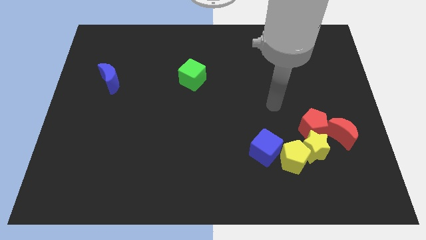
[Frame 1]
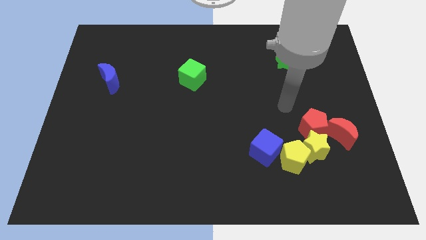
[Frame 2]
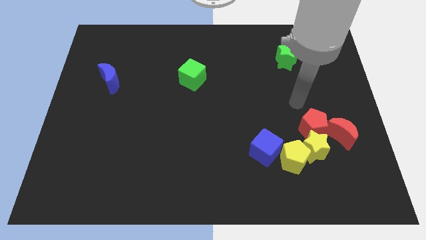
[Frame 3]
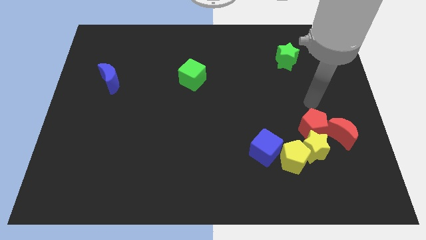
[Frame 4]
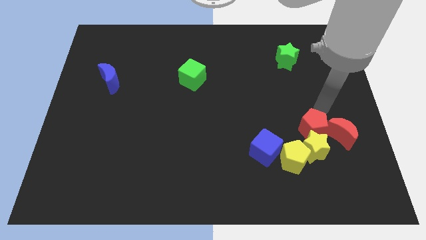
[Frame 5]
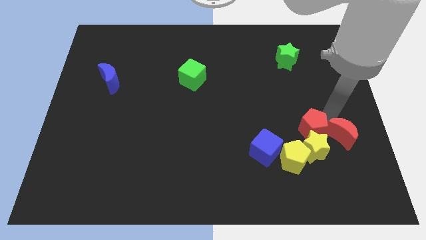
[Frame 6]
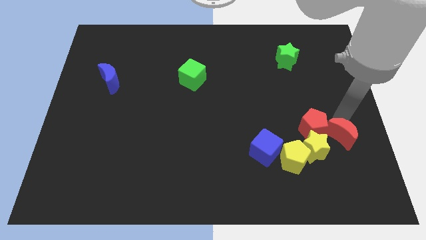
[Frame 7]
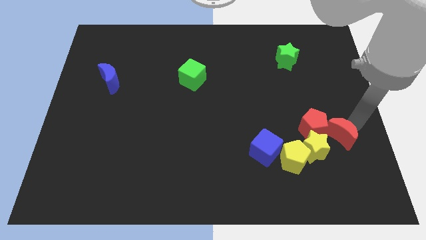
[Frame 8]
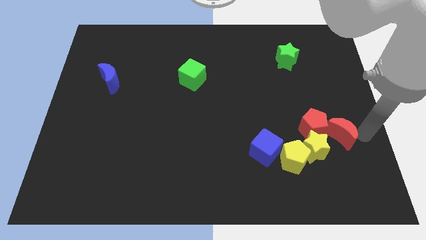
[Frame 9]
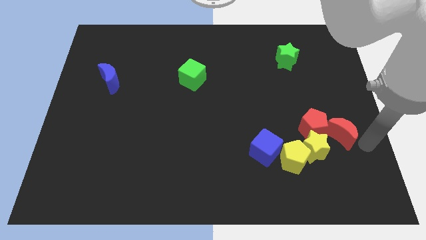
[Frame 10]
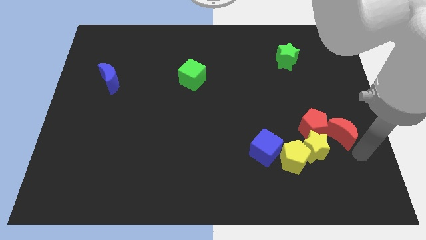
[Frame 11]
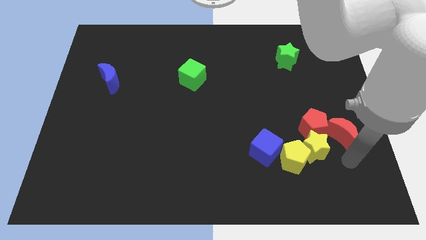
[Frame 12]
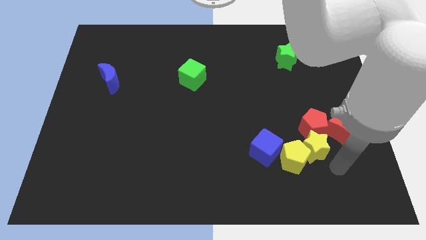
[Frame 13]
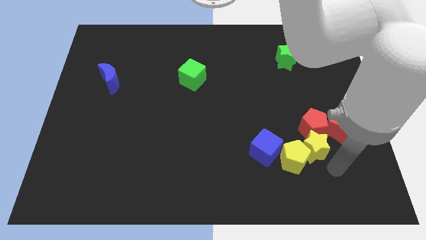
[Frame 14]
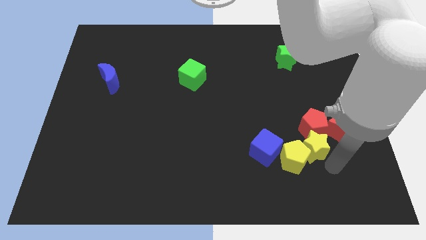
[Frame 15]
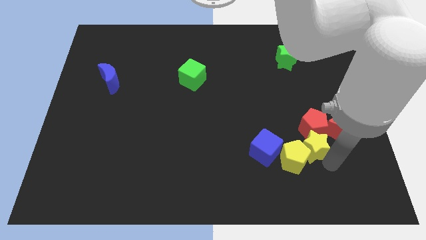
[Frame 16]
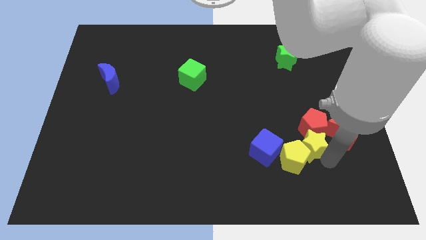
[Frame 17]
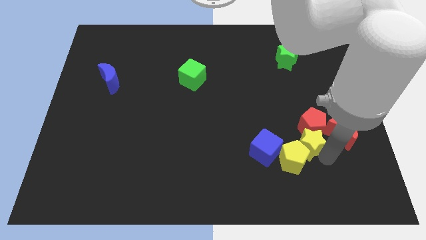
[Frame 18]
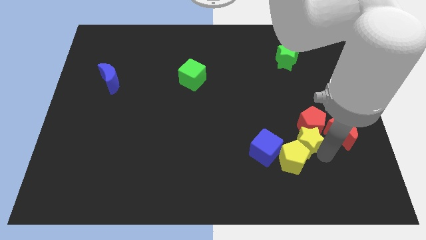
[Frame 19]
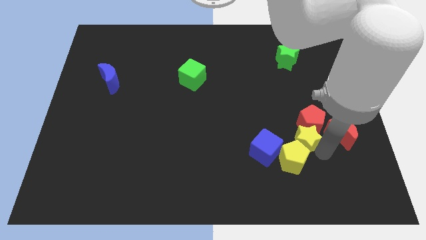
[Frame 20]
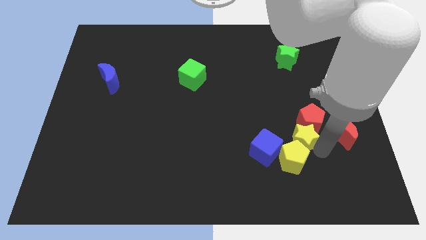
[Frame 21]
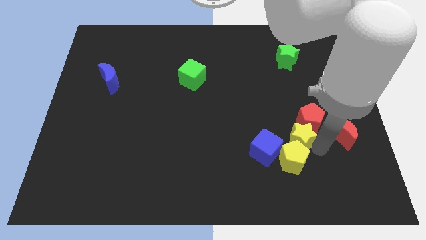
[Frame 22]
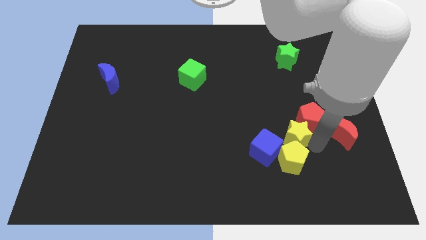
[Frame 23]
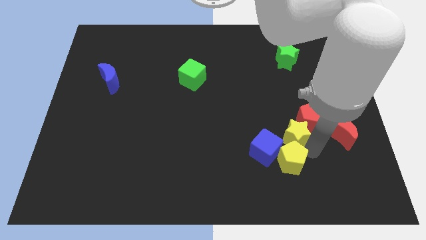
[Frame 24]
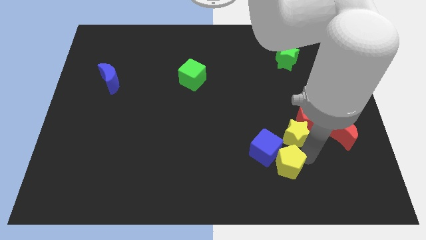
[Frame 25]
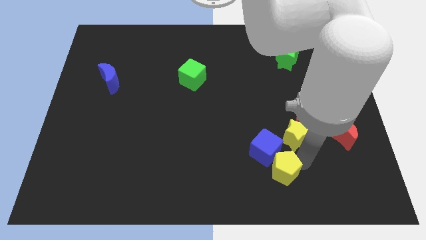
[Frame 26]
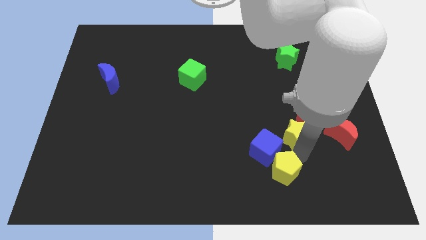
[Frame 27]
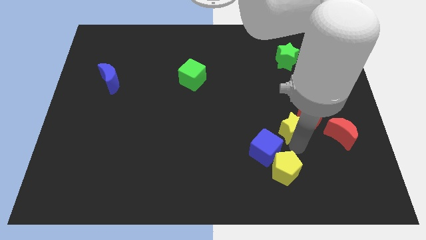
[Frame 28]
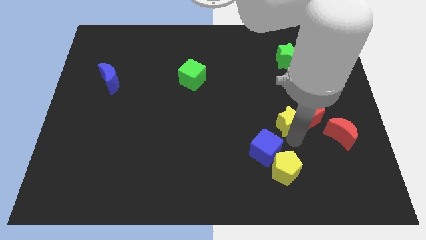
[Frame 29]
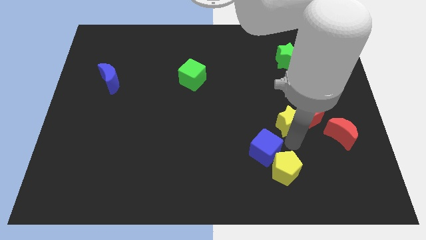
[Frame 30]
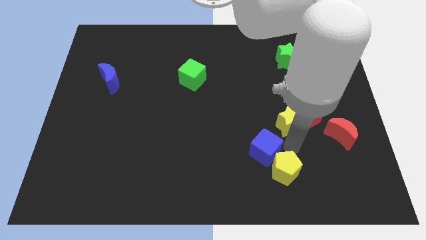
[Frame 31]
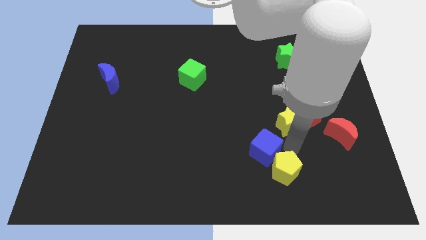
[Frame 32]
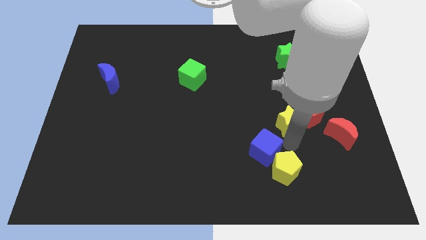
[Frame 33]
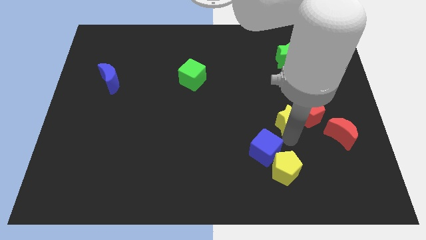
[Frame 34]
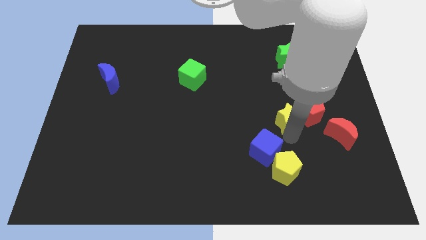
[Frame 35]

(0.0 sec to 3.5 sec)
slightly slide the yellow star up

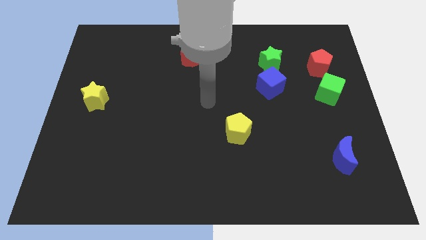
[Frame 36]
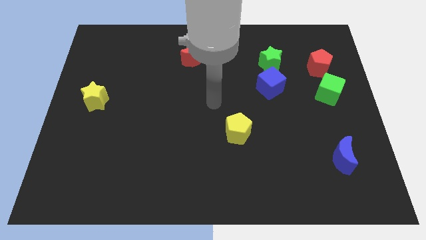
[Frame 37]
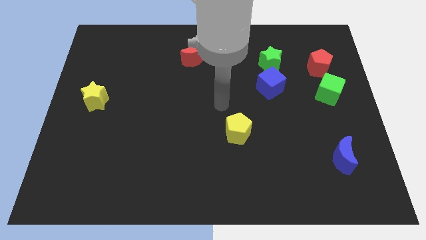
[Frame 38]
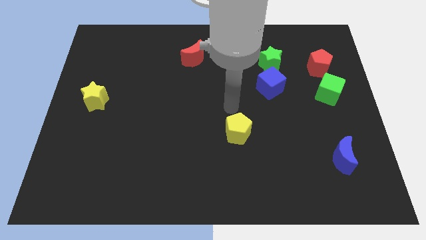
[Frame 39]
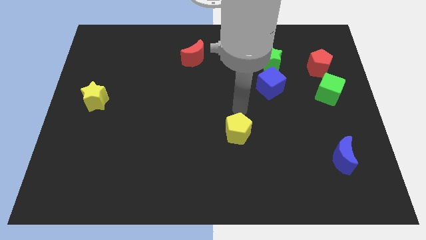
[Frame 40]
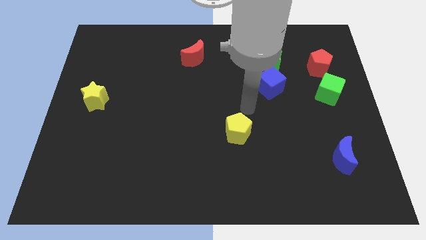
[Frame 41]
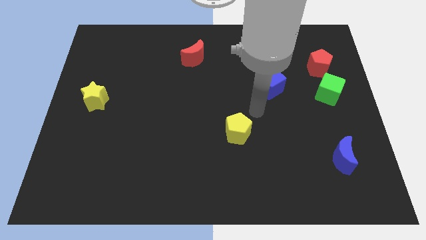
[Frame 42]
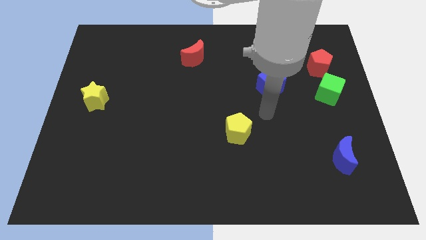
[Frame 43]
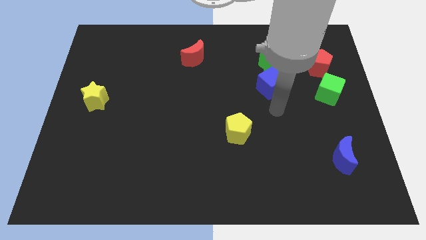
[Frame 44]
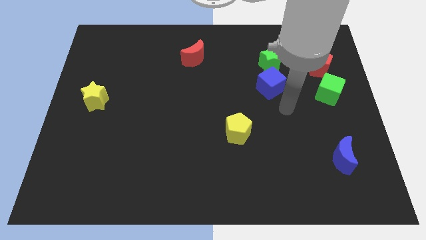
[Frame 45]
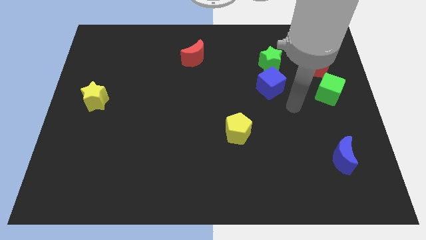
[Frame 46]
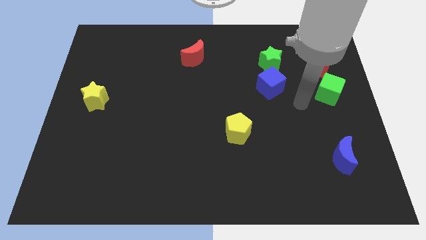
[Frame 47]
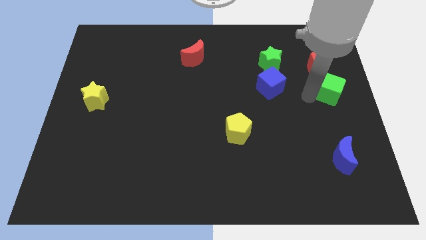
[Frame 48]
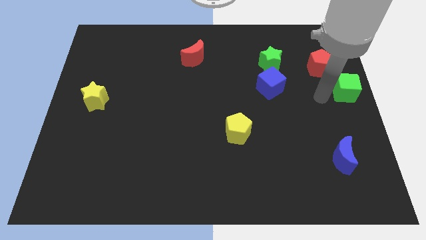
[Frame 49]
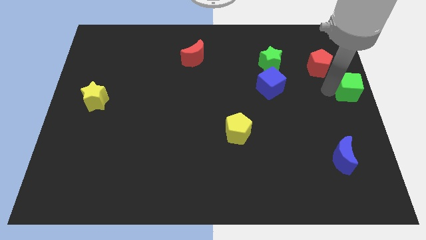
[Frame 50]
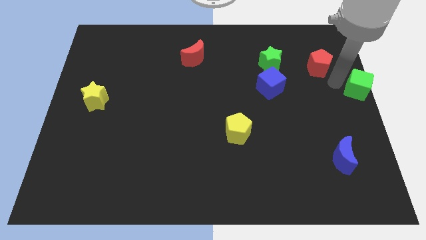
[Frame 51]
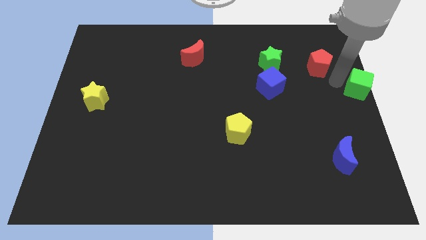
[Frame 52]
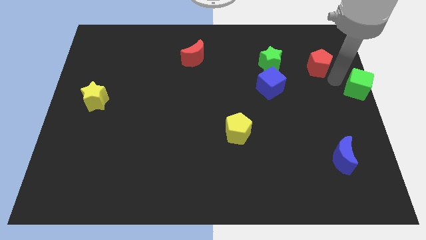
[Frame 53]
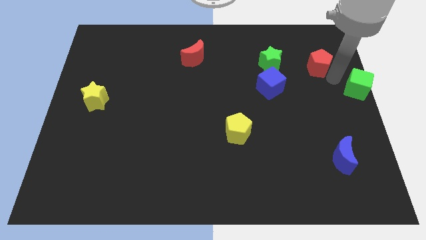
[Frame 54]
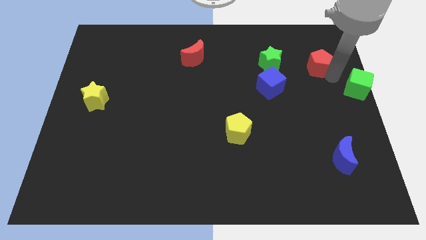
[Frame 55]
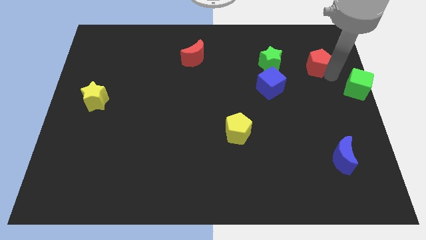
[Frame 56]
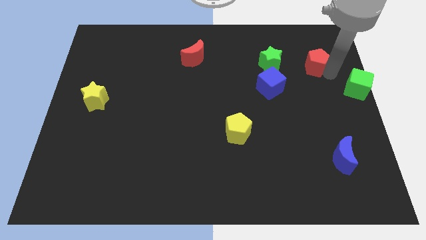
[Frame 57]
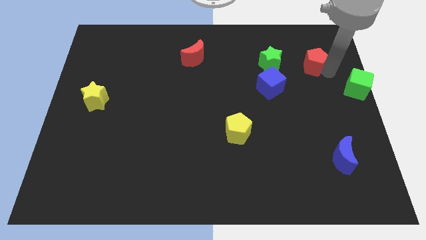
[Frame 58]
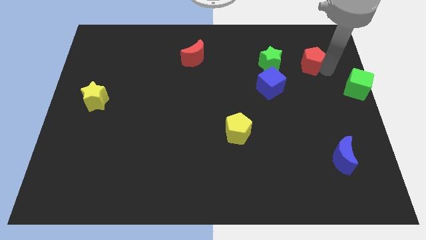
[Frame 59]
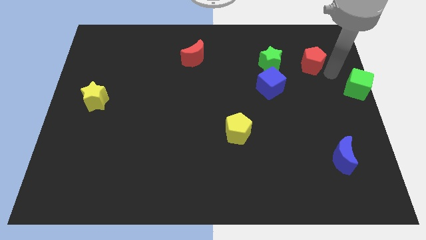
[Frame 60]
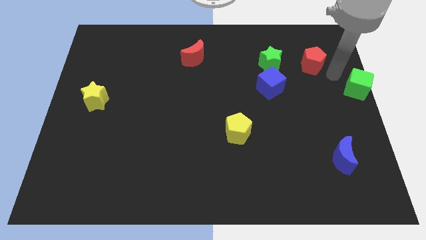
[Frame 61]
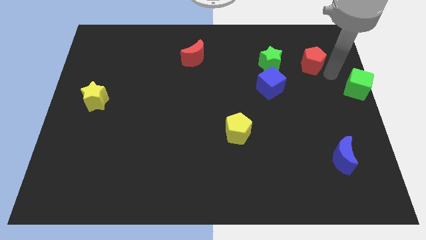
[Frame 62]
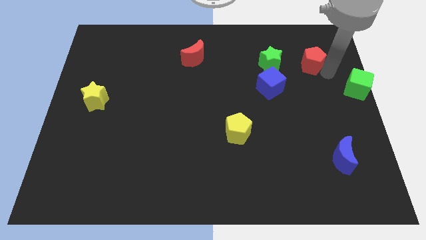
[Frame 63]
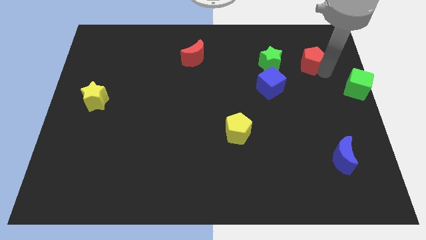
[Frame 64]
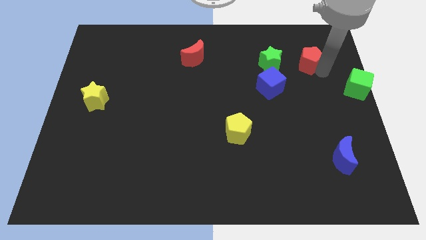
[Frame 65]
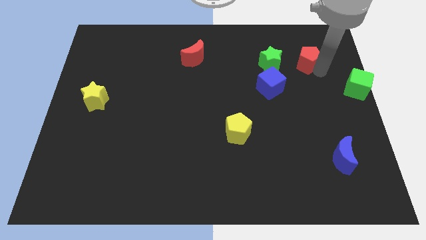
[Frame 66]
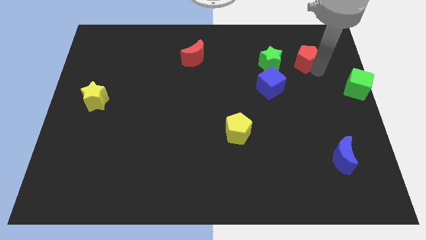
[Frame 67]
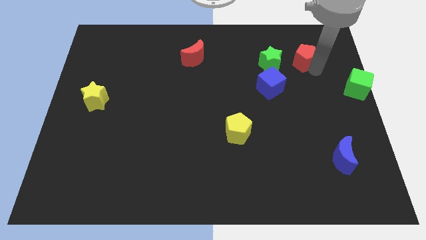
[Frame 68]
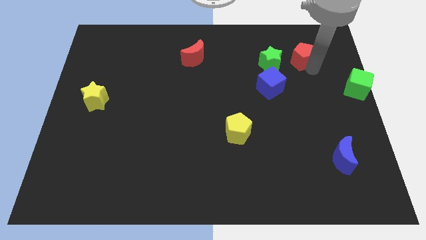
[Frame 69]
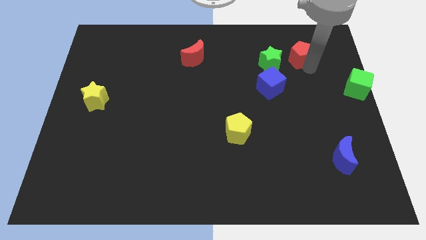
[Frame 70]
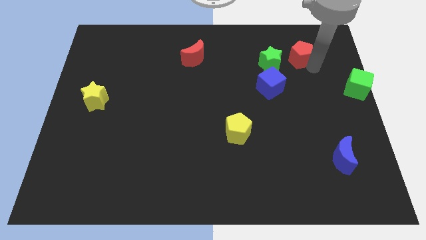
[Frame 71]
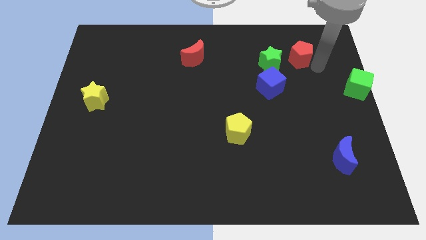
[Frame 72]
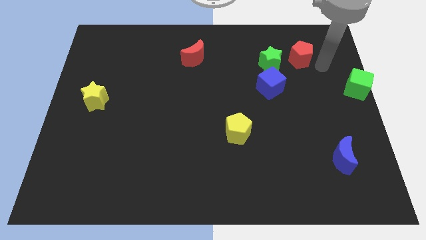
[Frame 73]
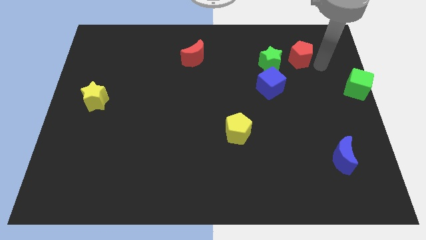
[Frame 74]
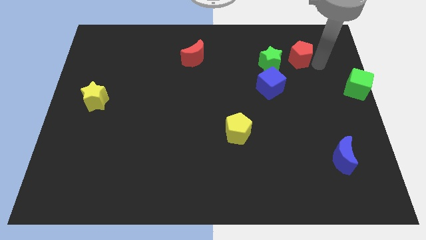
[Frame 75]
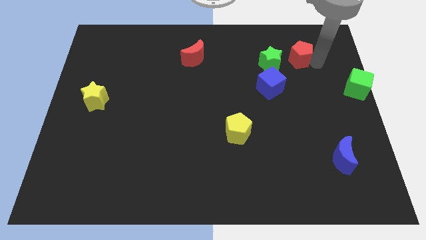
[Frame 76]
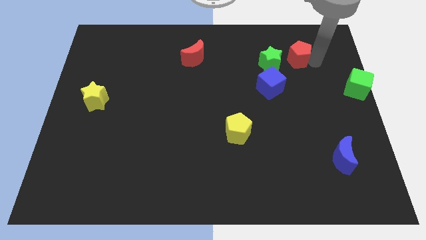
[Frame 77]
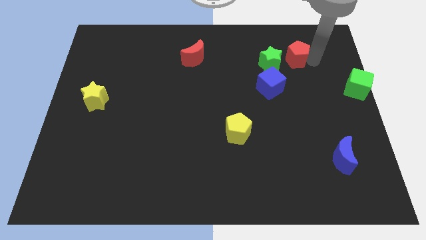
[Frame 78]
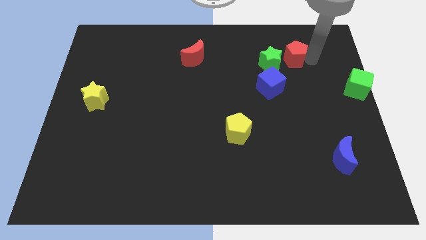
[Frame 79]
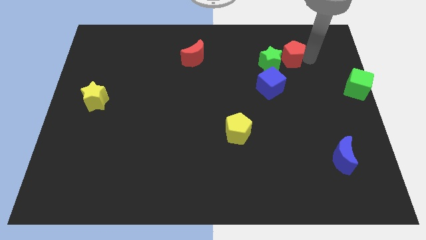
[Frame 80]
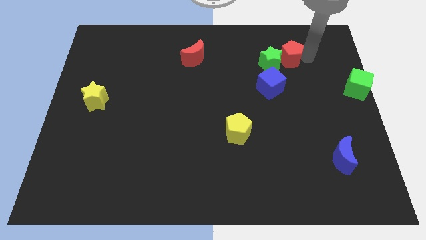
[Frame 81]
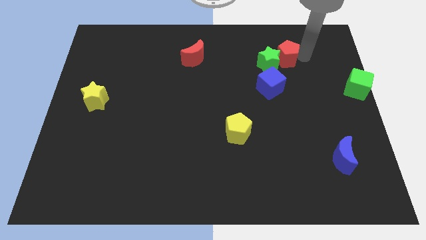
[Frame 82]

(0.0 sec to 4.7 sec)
slide the red pentagon left somewhat
